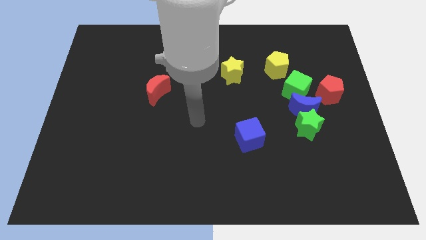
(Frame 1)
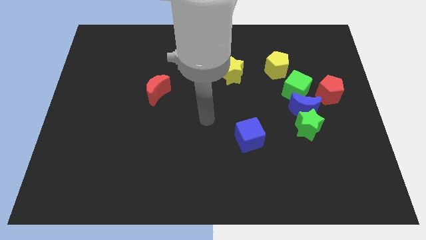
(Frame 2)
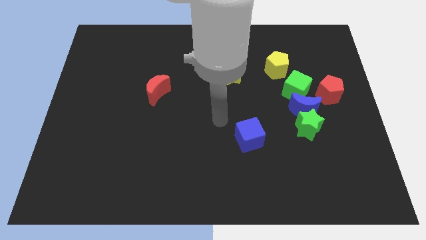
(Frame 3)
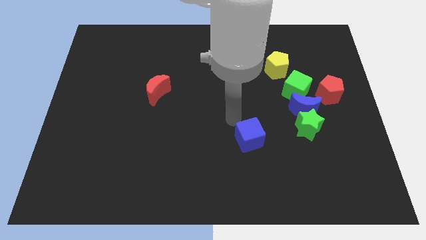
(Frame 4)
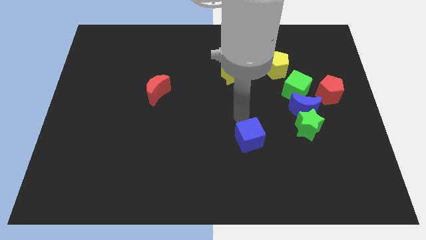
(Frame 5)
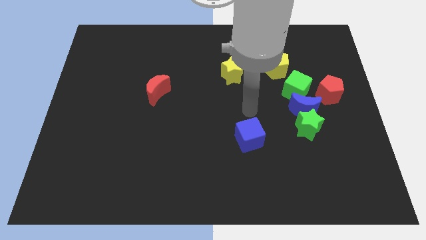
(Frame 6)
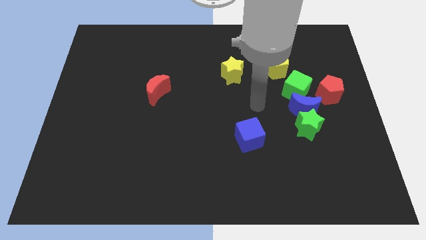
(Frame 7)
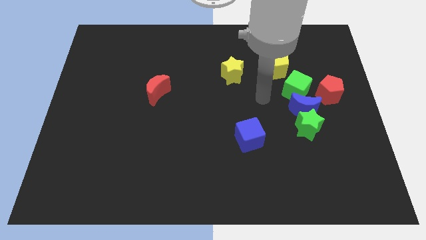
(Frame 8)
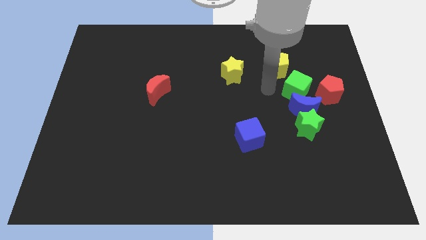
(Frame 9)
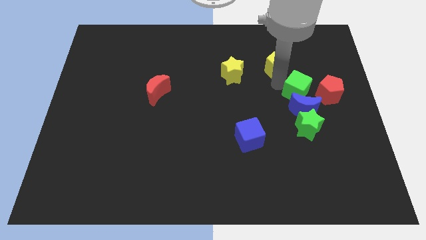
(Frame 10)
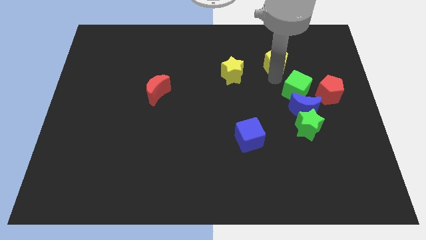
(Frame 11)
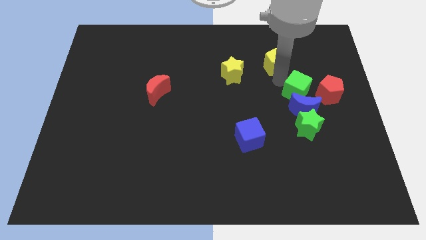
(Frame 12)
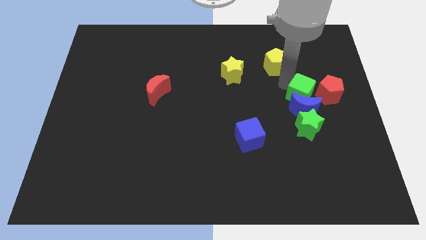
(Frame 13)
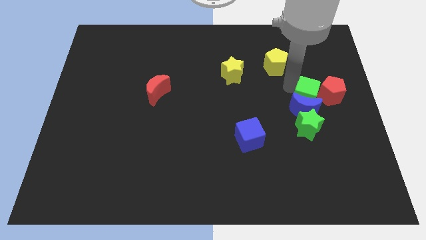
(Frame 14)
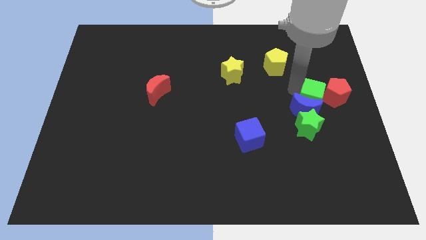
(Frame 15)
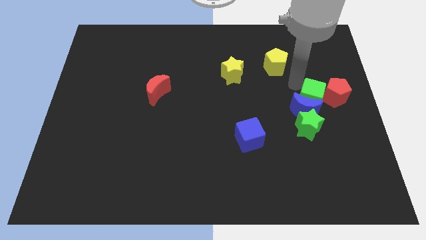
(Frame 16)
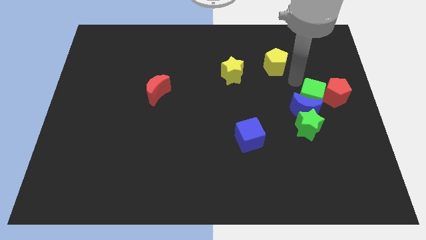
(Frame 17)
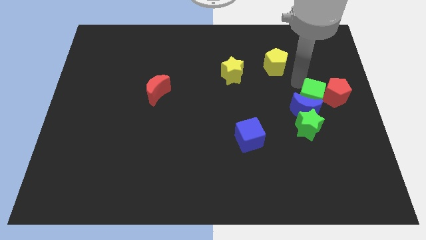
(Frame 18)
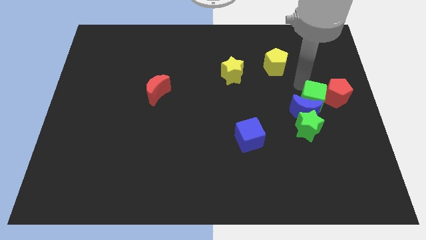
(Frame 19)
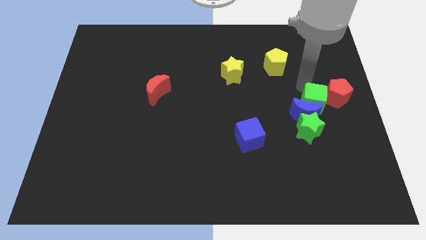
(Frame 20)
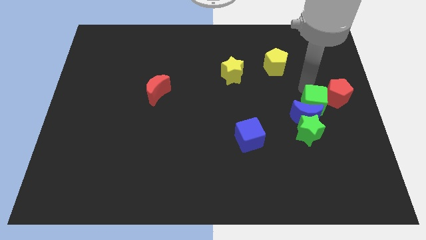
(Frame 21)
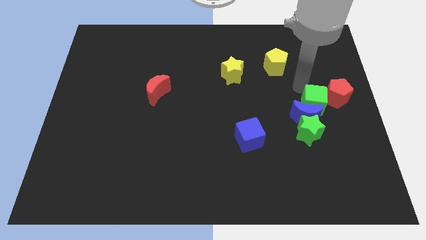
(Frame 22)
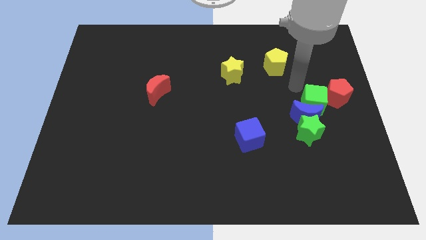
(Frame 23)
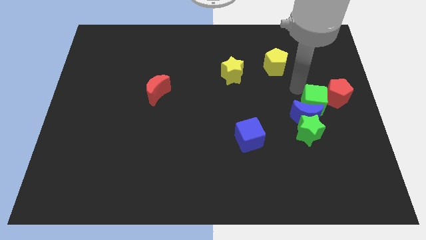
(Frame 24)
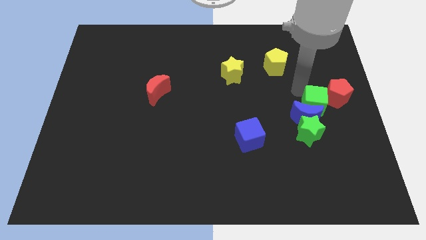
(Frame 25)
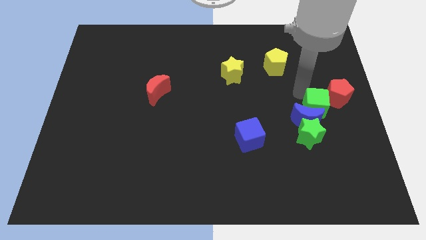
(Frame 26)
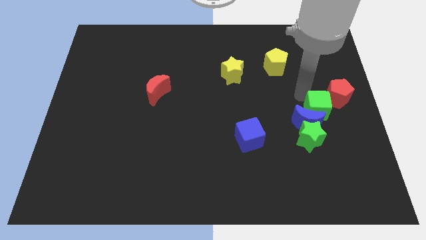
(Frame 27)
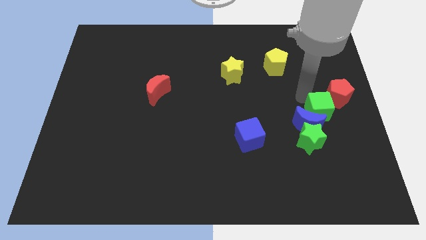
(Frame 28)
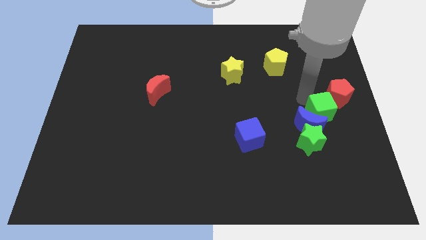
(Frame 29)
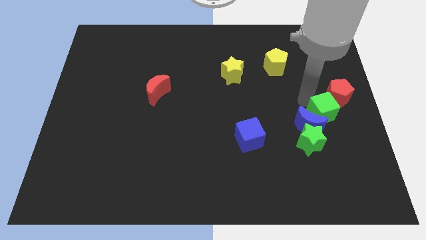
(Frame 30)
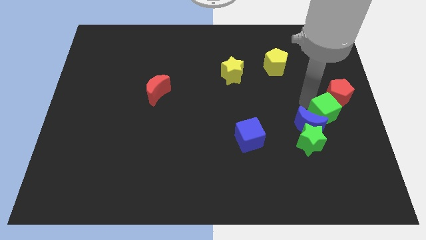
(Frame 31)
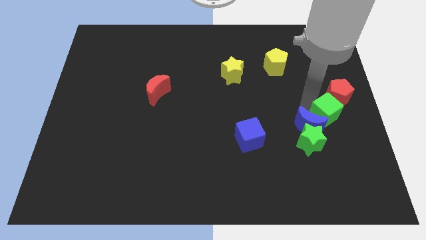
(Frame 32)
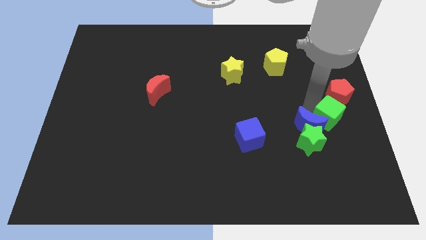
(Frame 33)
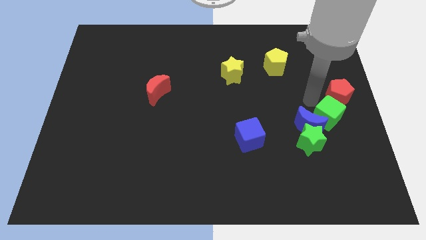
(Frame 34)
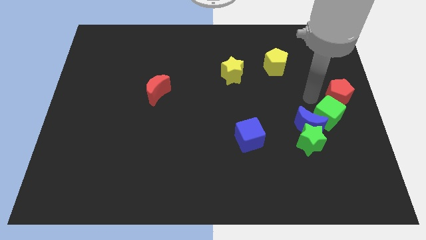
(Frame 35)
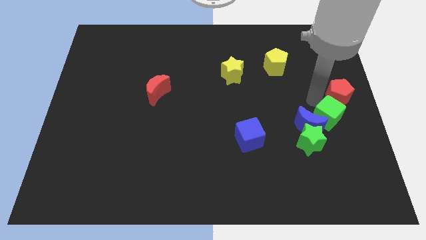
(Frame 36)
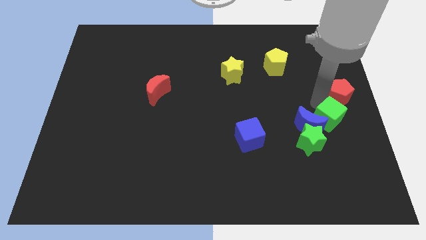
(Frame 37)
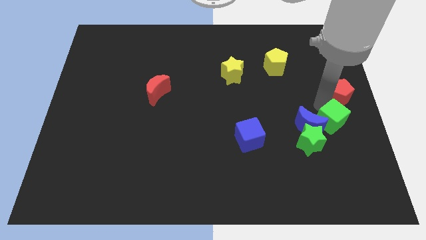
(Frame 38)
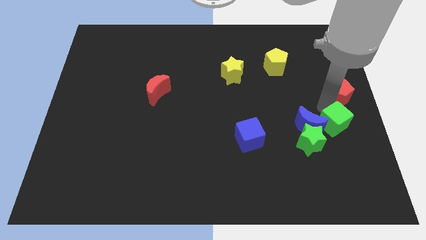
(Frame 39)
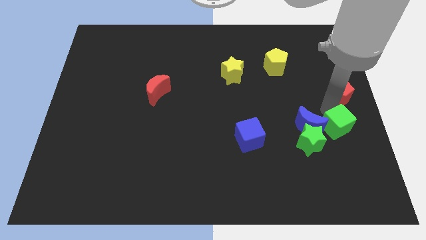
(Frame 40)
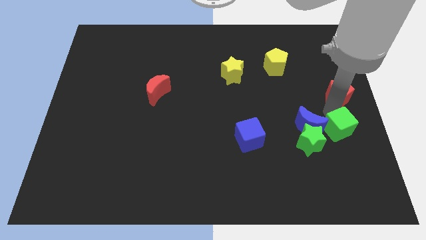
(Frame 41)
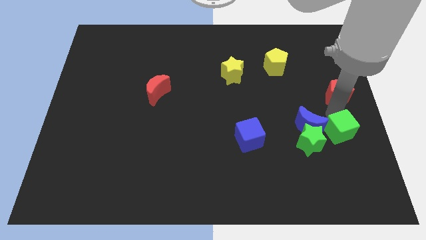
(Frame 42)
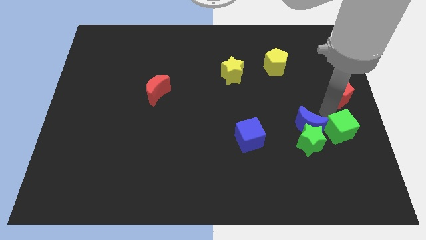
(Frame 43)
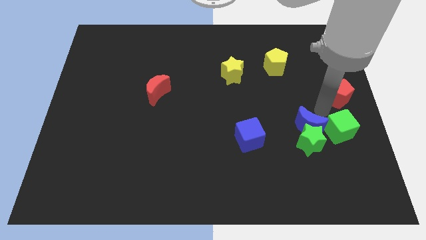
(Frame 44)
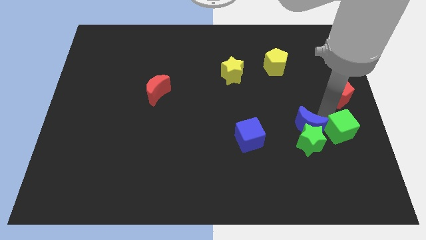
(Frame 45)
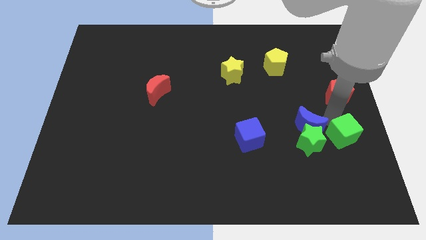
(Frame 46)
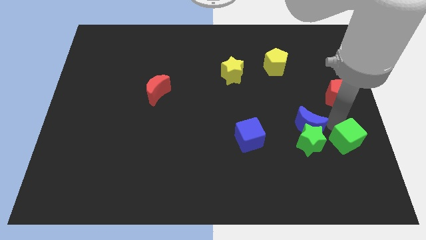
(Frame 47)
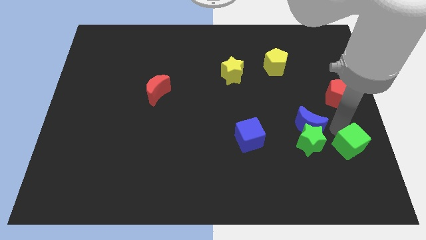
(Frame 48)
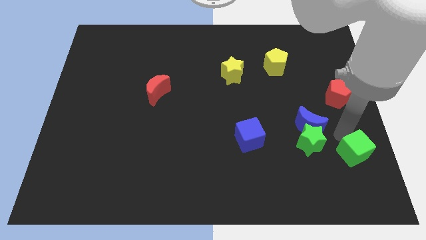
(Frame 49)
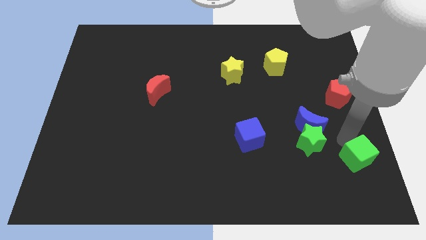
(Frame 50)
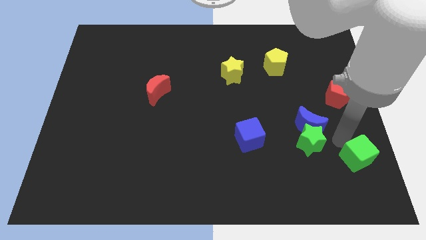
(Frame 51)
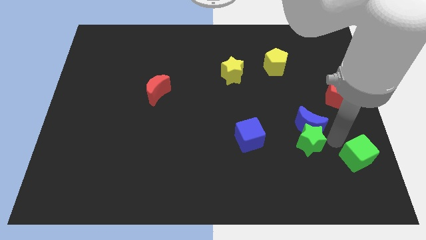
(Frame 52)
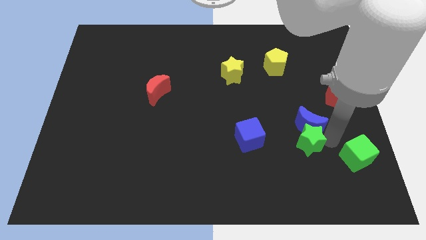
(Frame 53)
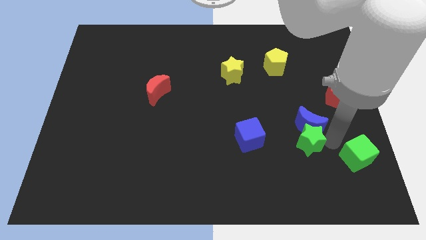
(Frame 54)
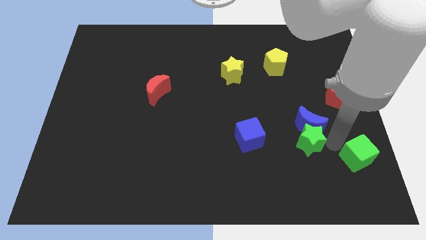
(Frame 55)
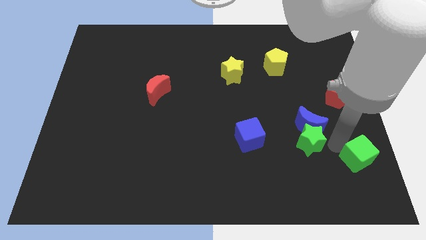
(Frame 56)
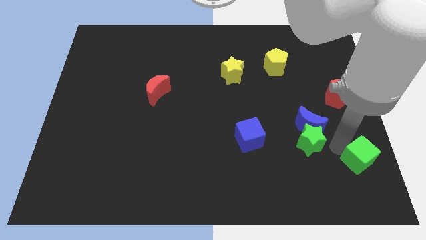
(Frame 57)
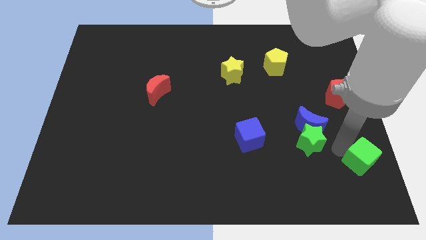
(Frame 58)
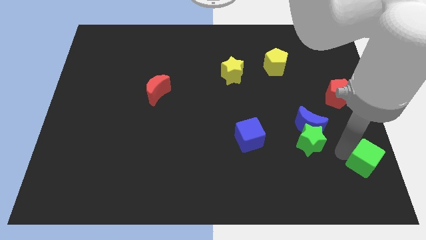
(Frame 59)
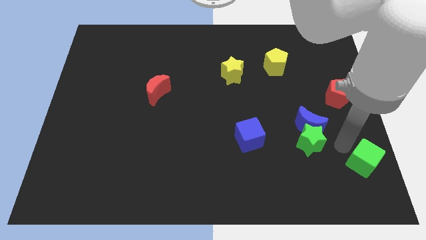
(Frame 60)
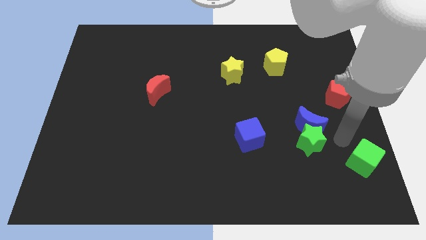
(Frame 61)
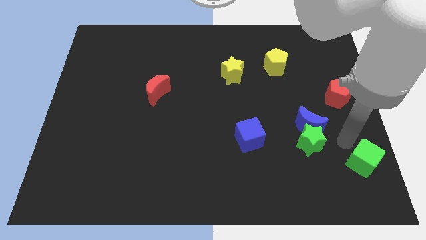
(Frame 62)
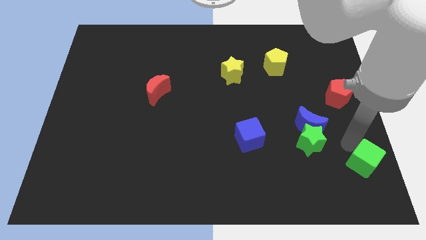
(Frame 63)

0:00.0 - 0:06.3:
push the green cube to the lower right corner

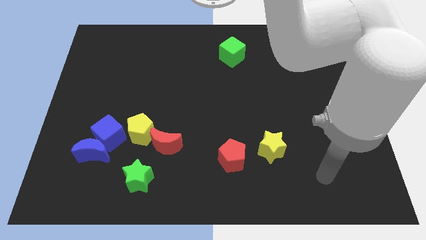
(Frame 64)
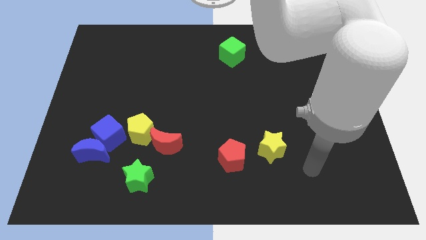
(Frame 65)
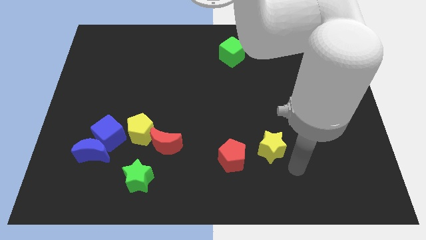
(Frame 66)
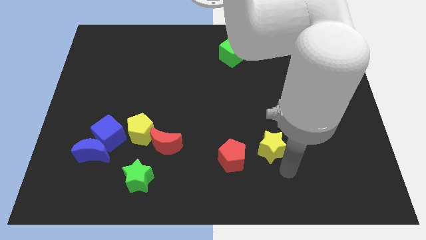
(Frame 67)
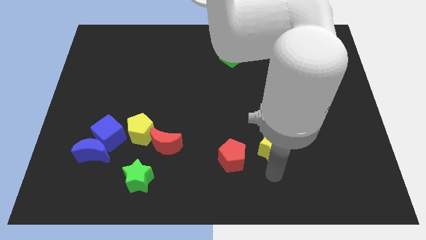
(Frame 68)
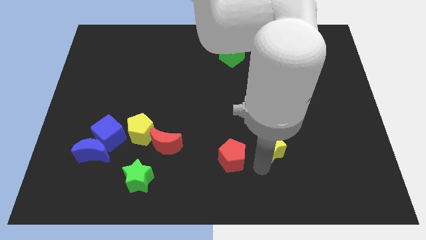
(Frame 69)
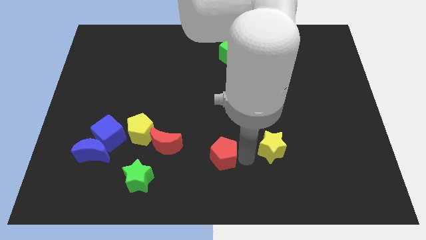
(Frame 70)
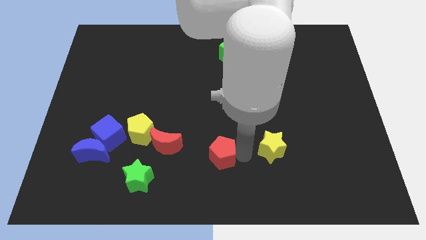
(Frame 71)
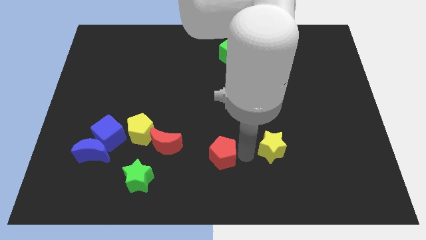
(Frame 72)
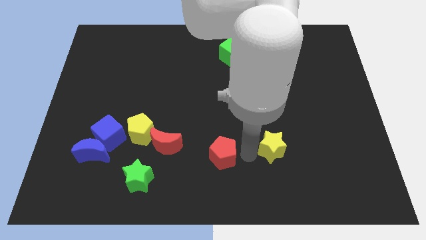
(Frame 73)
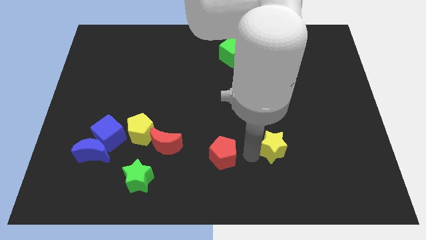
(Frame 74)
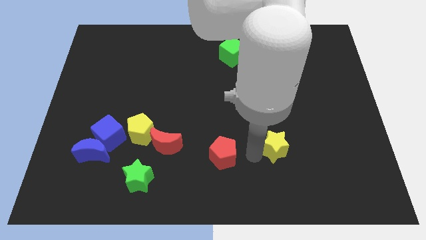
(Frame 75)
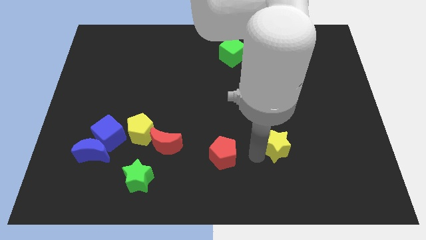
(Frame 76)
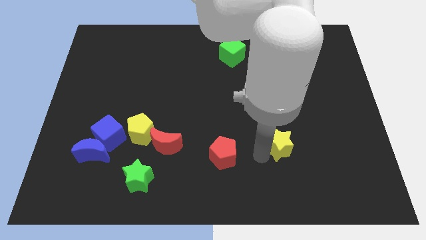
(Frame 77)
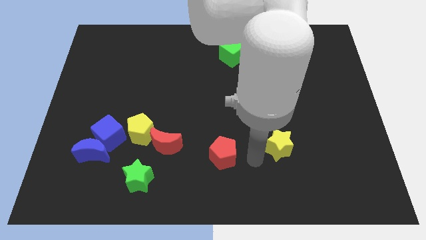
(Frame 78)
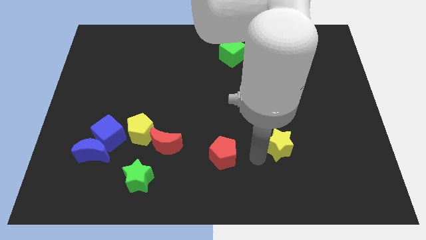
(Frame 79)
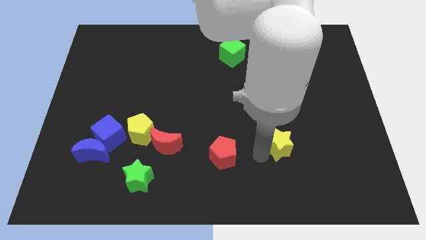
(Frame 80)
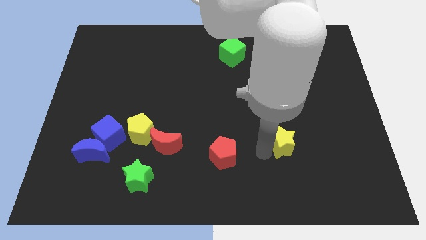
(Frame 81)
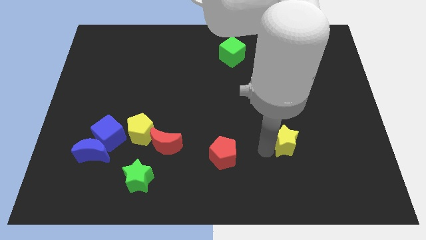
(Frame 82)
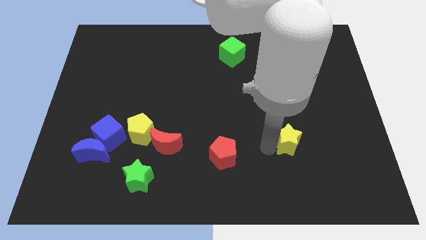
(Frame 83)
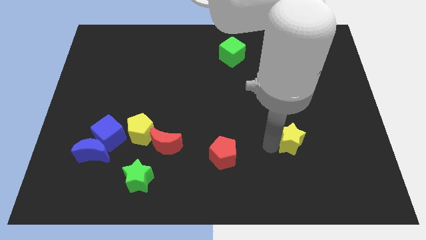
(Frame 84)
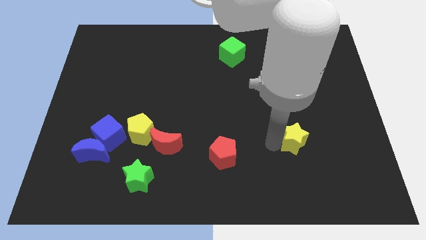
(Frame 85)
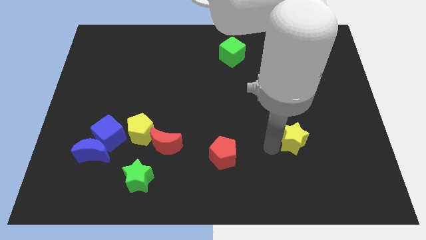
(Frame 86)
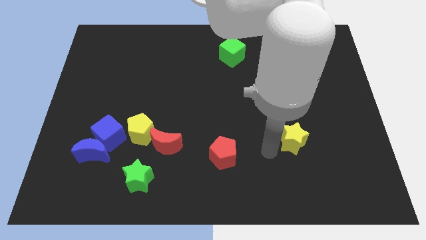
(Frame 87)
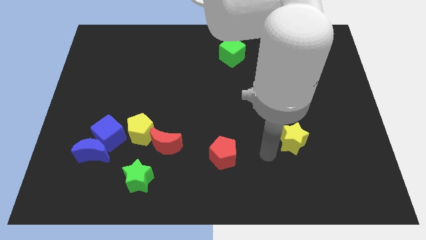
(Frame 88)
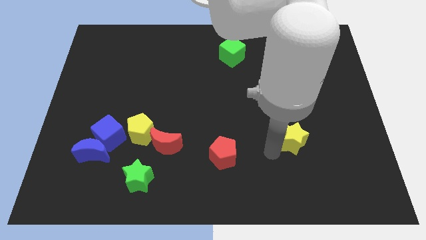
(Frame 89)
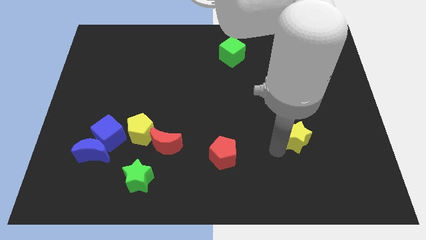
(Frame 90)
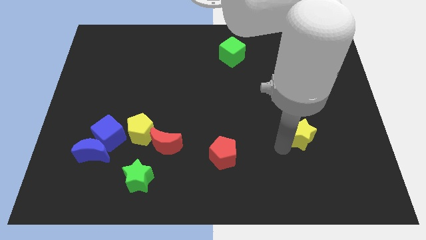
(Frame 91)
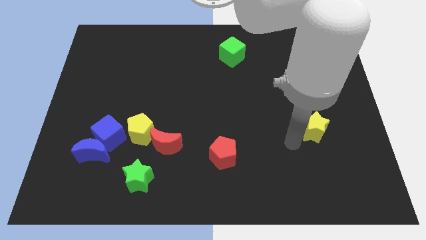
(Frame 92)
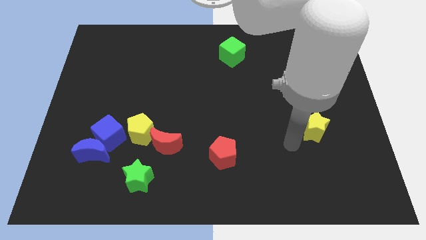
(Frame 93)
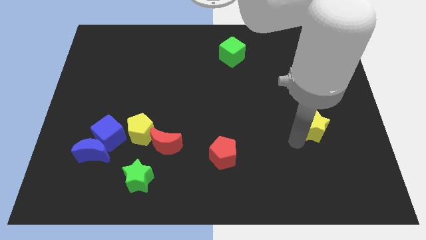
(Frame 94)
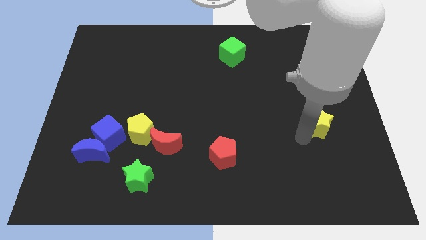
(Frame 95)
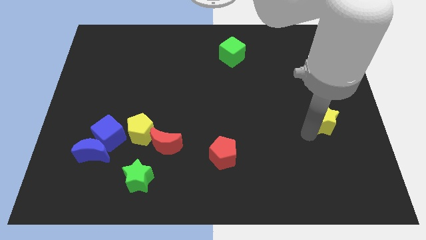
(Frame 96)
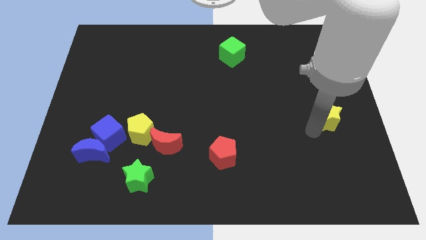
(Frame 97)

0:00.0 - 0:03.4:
push the yellow star to the right side
